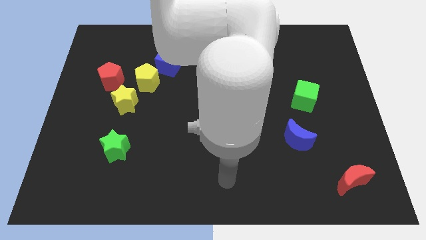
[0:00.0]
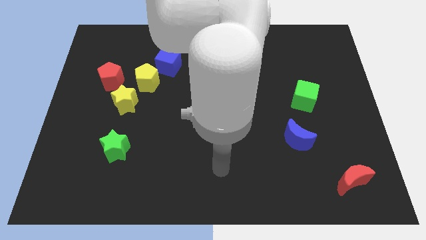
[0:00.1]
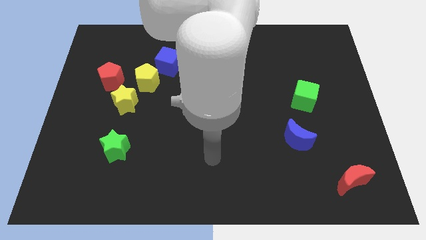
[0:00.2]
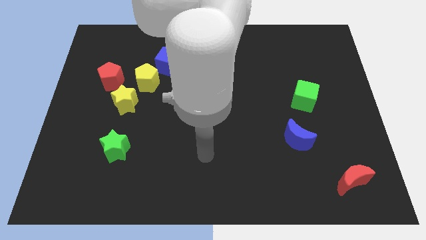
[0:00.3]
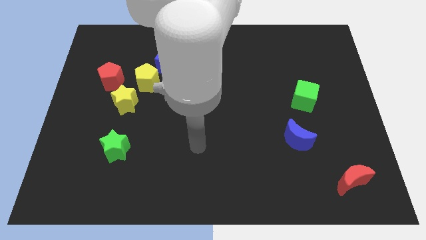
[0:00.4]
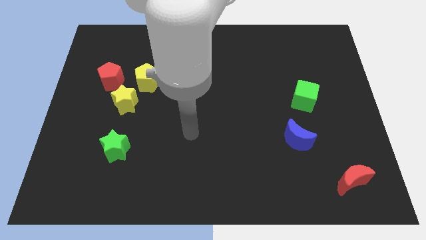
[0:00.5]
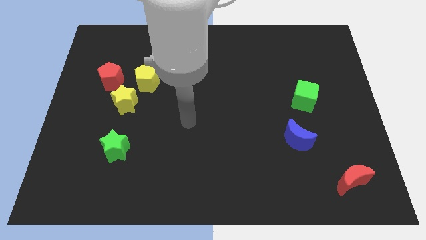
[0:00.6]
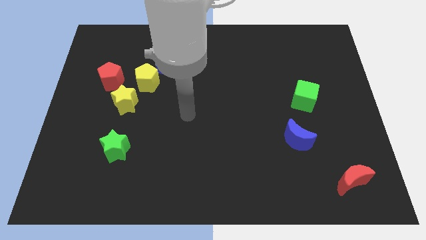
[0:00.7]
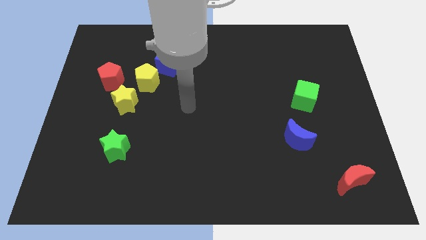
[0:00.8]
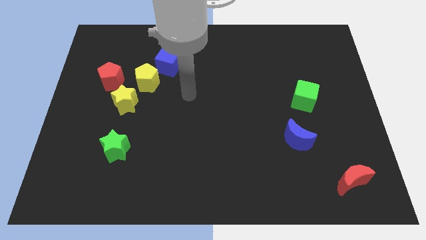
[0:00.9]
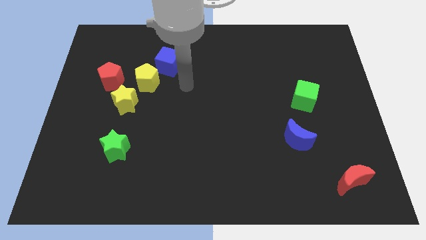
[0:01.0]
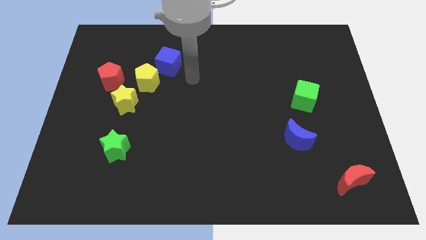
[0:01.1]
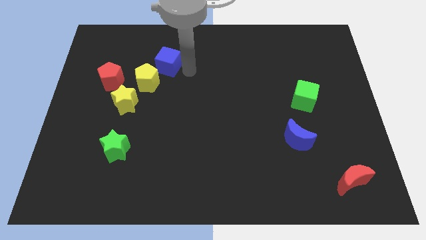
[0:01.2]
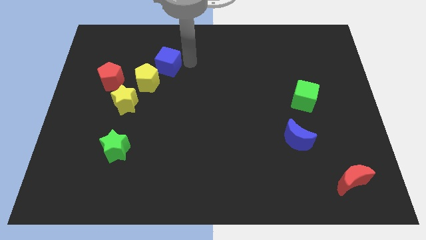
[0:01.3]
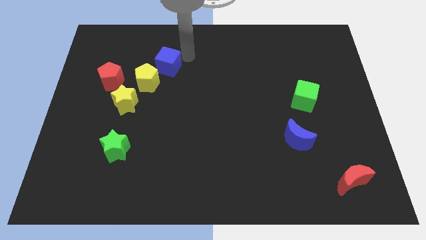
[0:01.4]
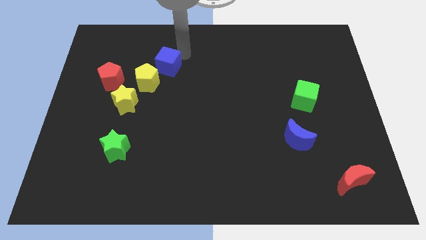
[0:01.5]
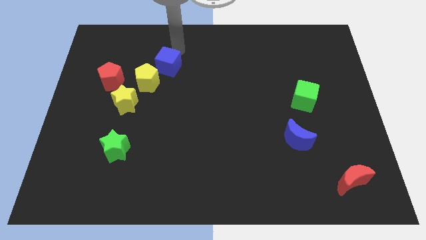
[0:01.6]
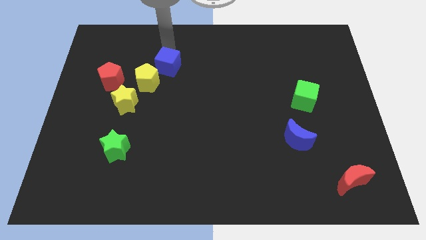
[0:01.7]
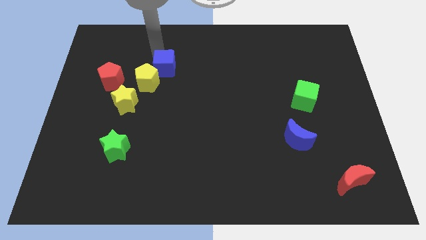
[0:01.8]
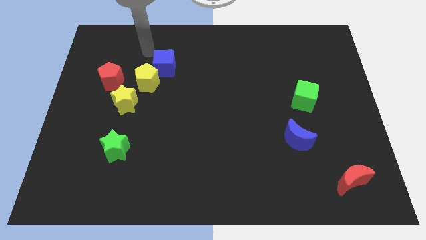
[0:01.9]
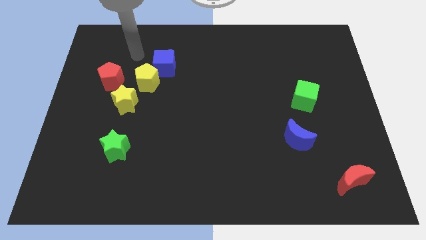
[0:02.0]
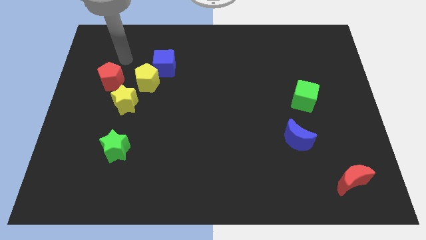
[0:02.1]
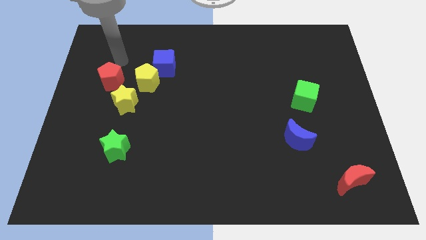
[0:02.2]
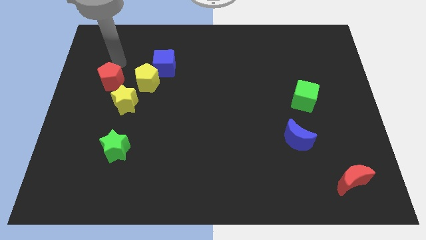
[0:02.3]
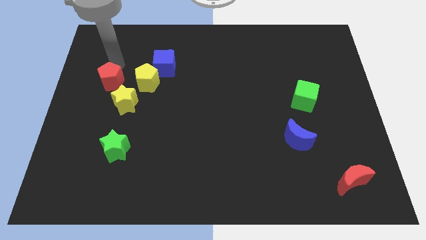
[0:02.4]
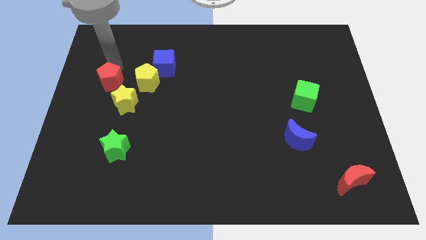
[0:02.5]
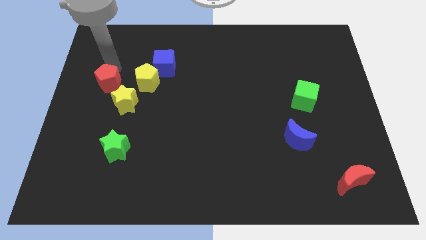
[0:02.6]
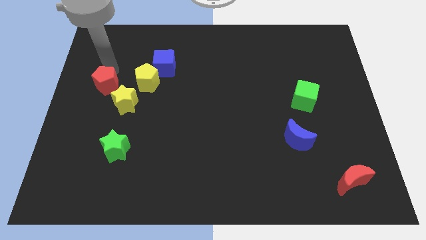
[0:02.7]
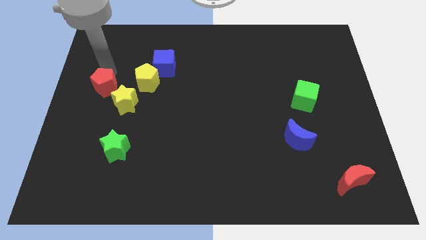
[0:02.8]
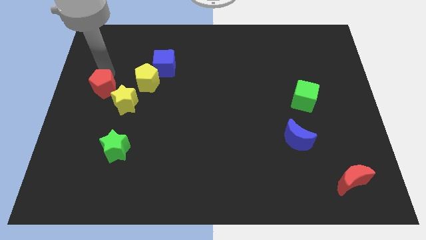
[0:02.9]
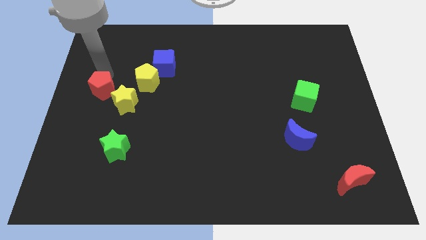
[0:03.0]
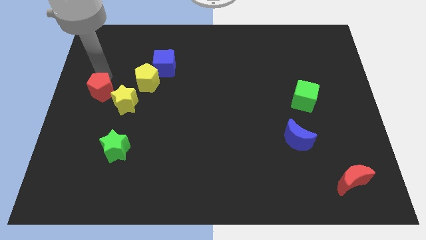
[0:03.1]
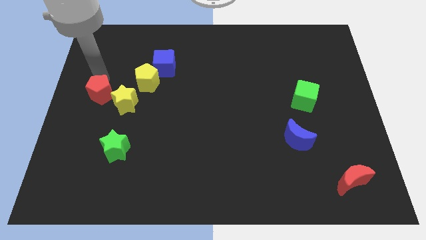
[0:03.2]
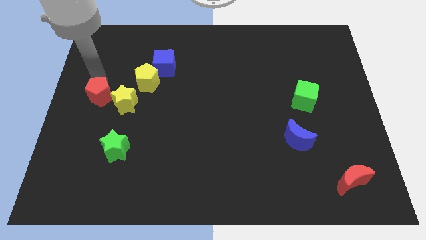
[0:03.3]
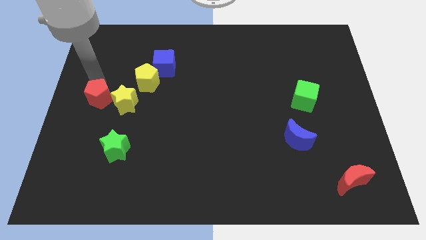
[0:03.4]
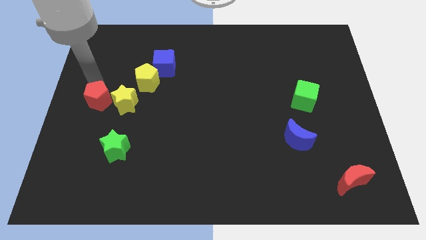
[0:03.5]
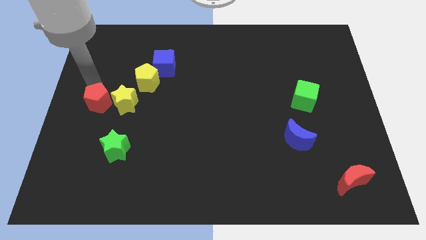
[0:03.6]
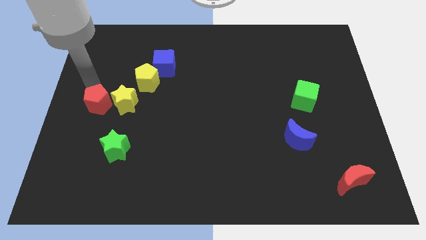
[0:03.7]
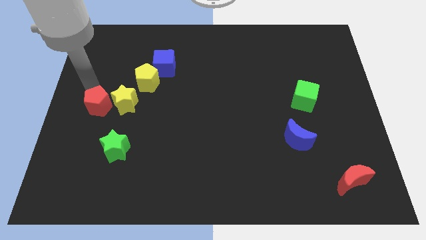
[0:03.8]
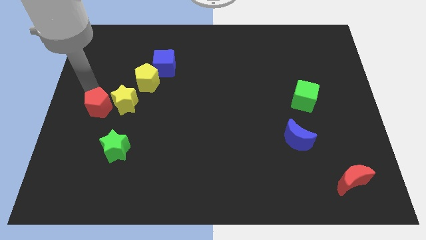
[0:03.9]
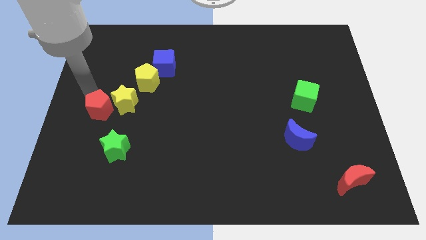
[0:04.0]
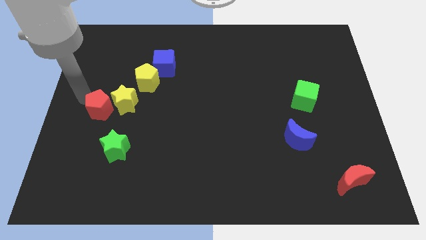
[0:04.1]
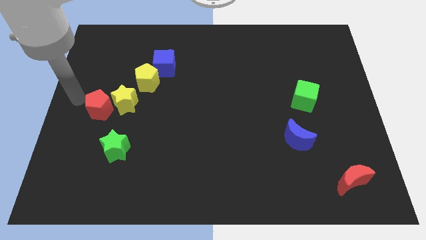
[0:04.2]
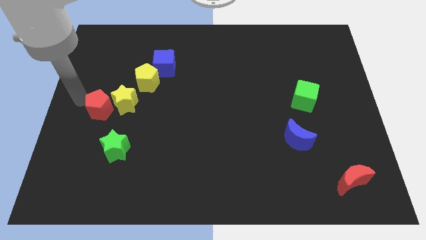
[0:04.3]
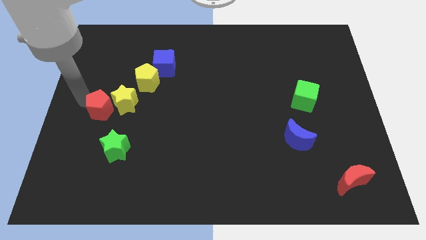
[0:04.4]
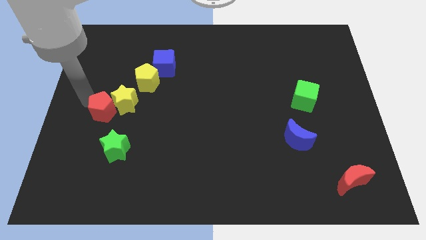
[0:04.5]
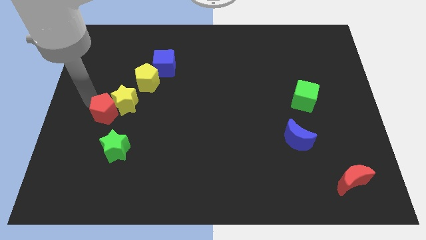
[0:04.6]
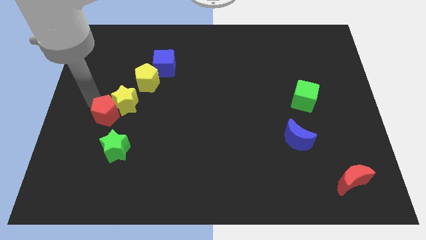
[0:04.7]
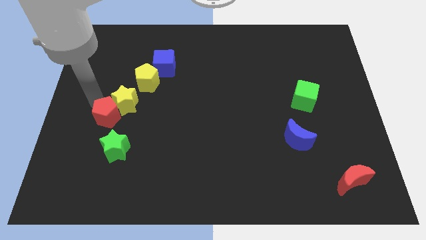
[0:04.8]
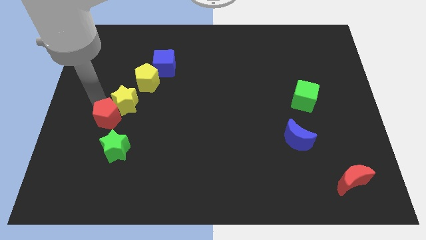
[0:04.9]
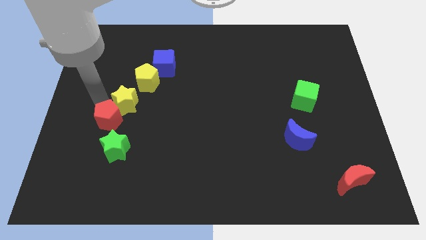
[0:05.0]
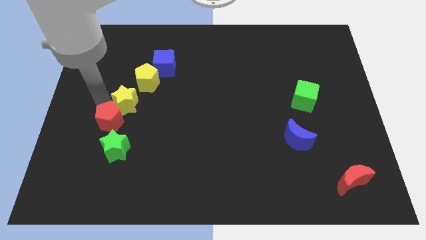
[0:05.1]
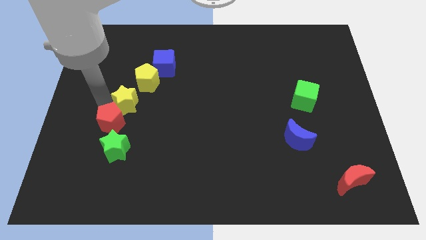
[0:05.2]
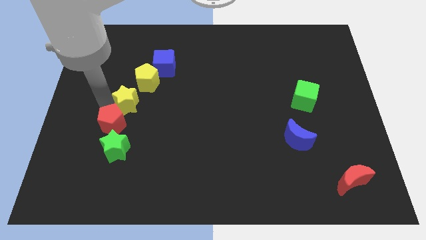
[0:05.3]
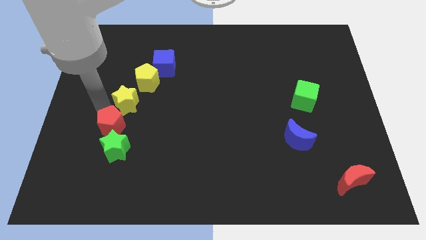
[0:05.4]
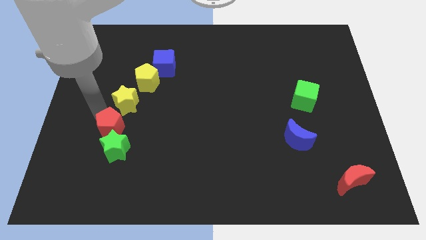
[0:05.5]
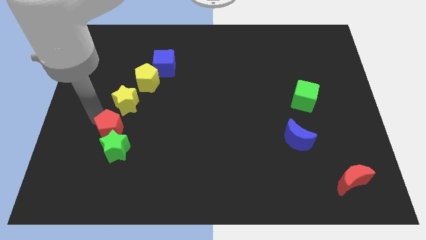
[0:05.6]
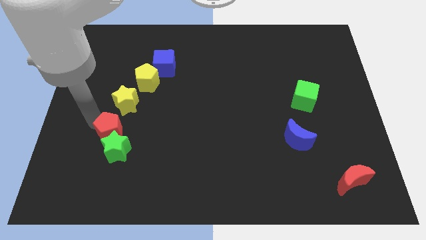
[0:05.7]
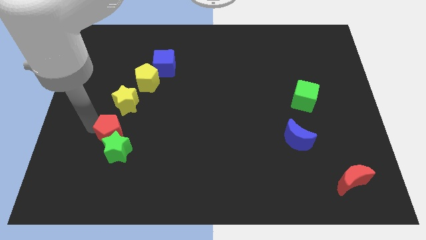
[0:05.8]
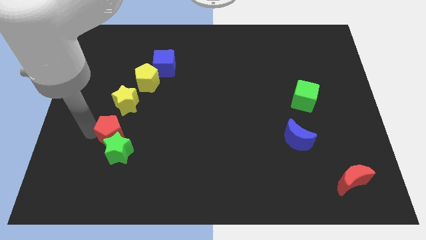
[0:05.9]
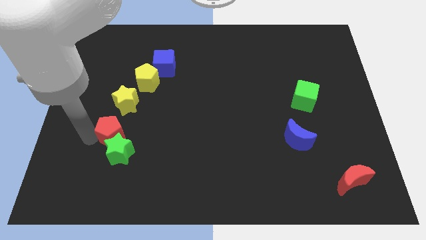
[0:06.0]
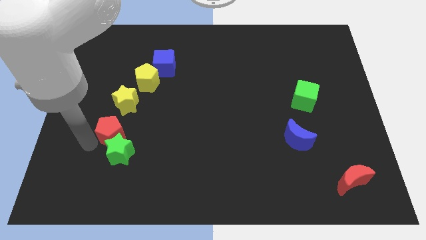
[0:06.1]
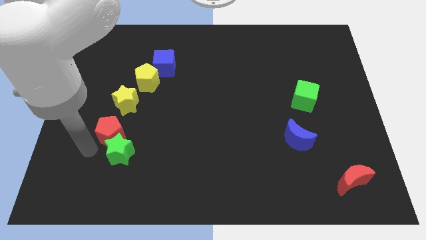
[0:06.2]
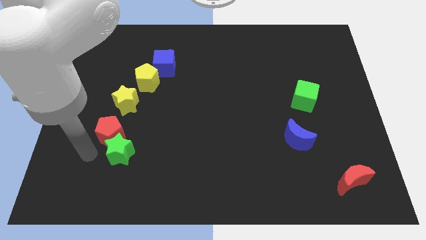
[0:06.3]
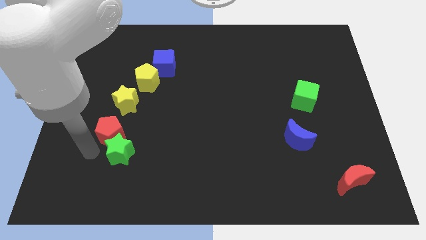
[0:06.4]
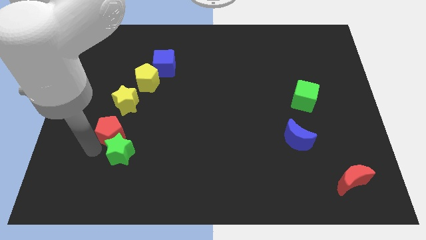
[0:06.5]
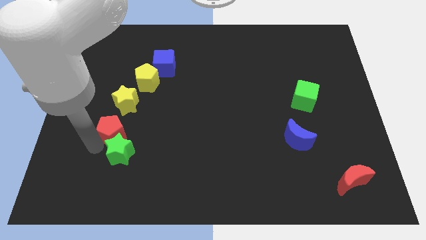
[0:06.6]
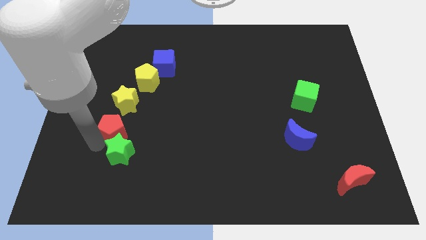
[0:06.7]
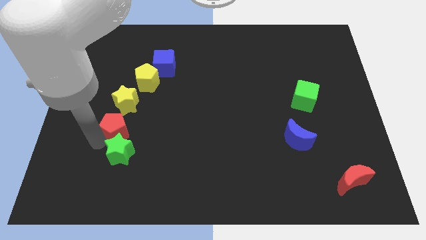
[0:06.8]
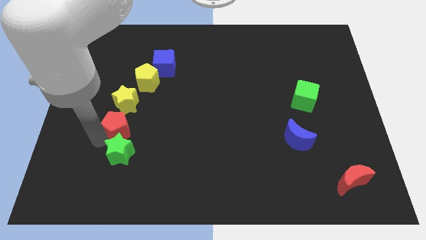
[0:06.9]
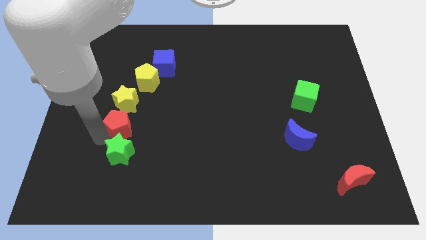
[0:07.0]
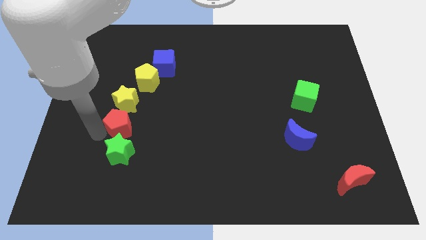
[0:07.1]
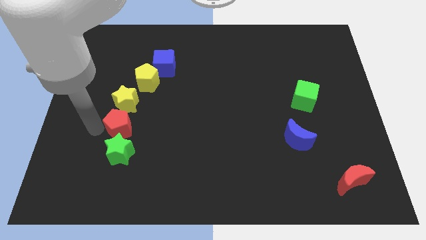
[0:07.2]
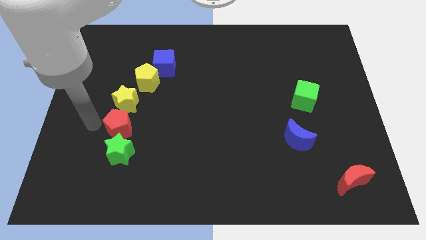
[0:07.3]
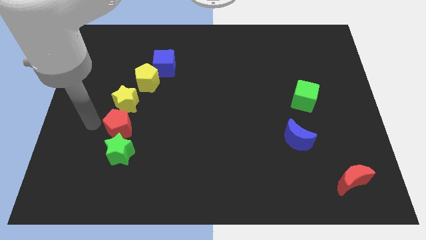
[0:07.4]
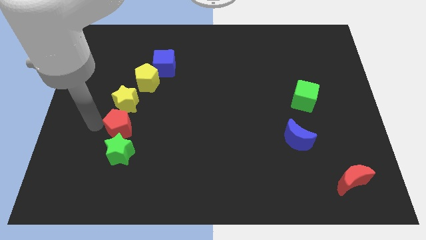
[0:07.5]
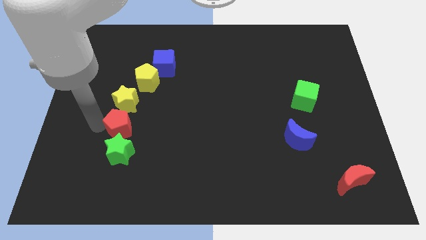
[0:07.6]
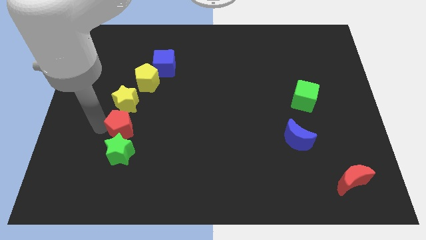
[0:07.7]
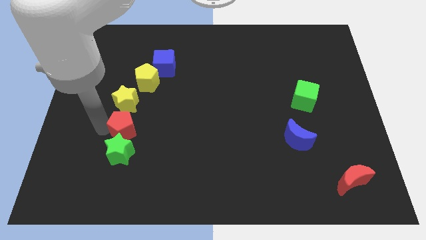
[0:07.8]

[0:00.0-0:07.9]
put the red pentagon to the top right of the green star
